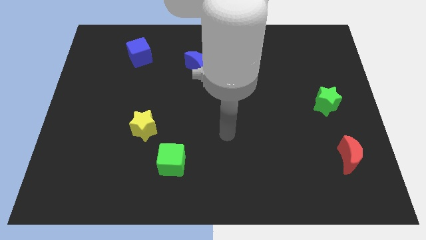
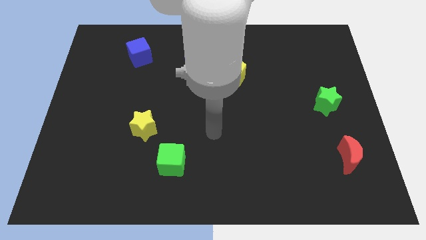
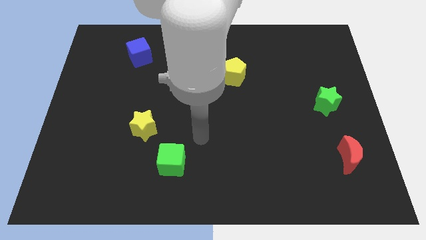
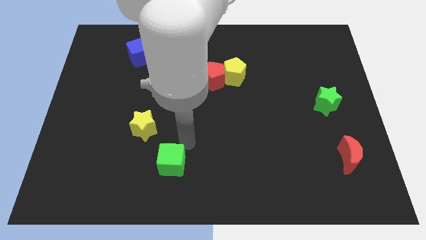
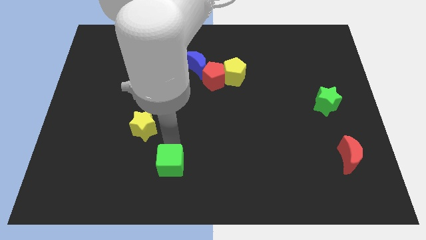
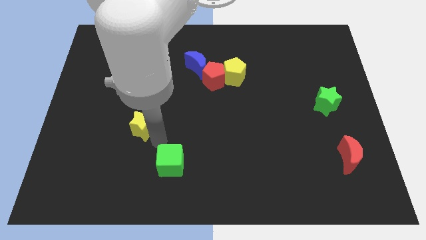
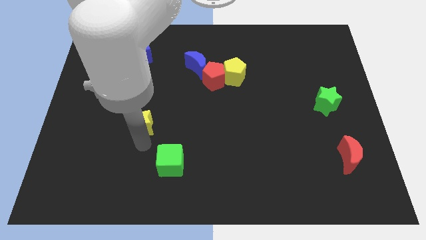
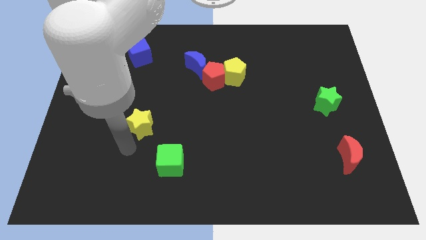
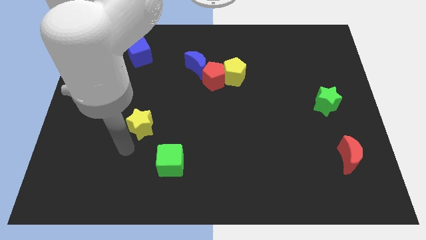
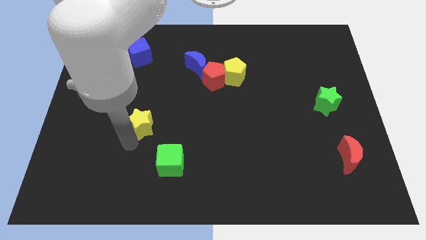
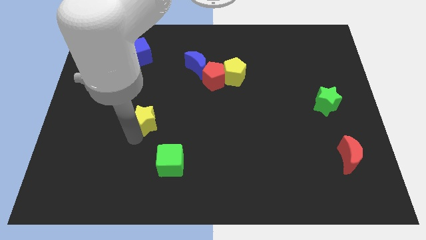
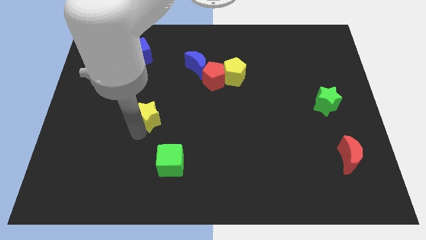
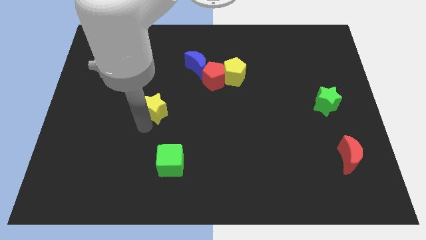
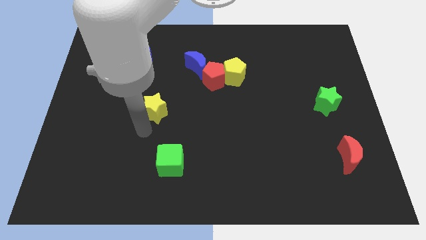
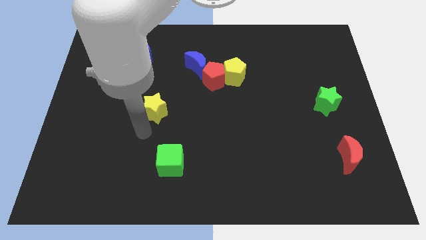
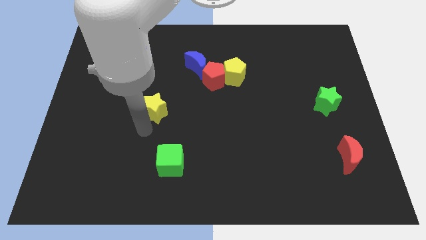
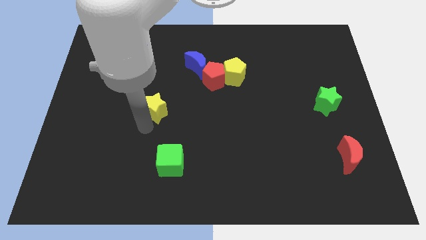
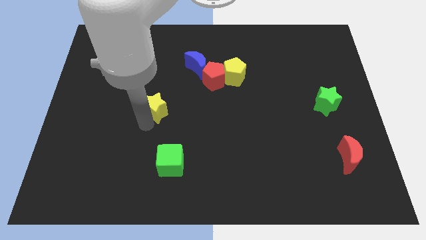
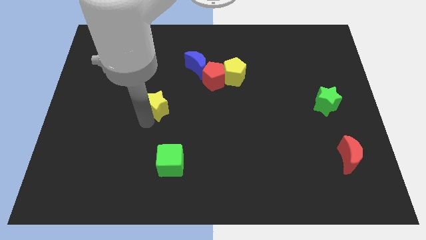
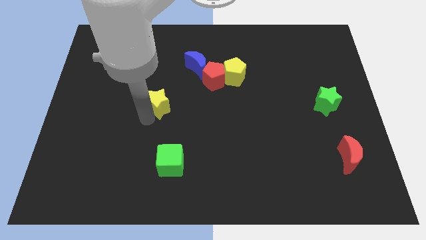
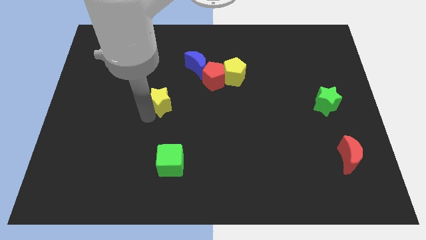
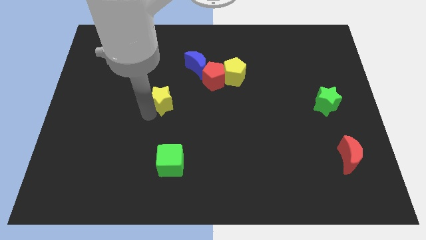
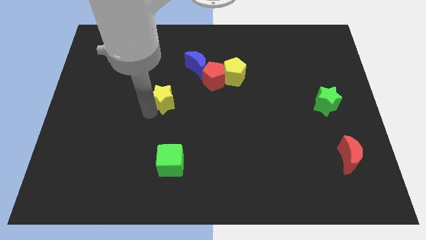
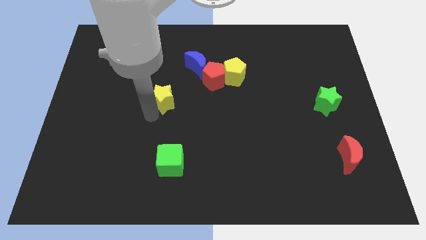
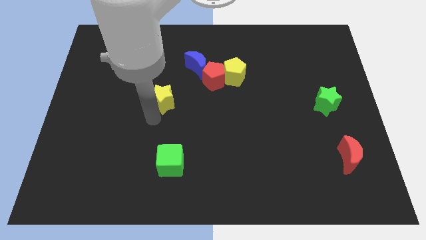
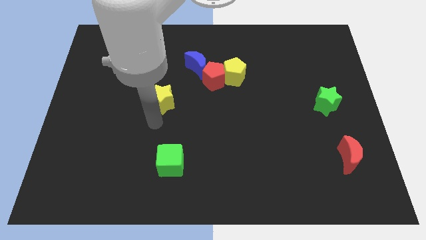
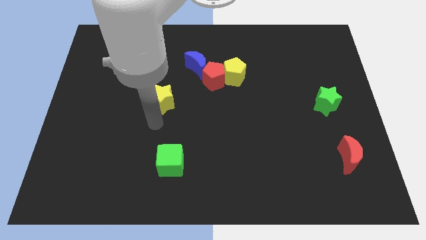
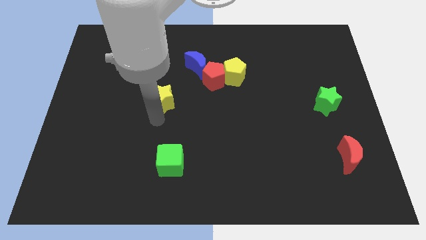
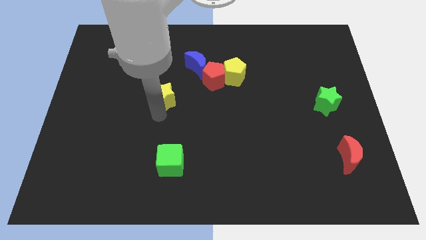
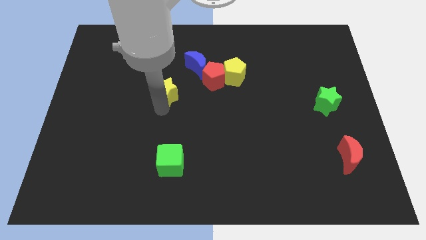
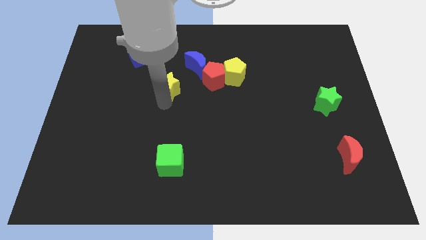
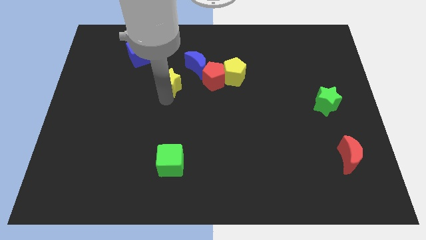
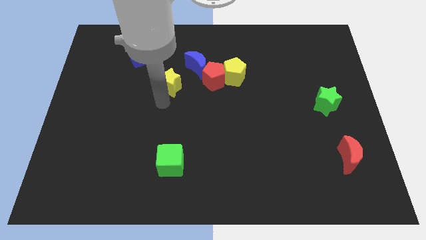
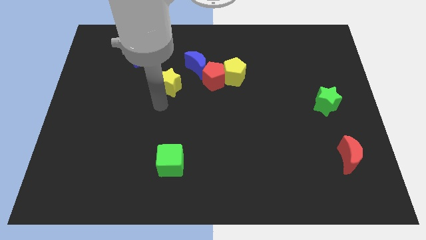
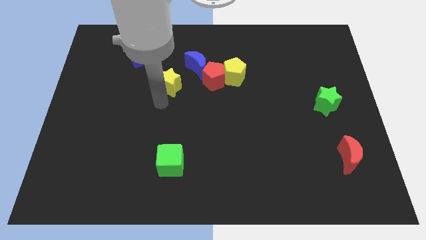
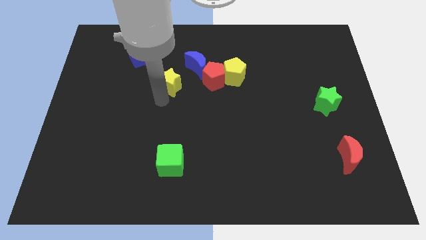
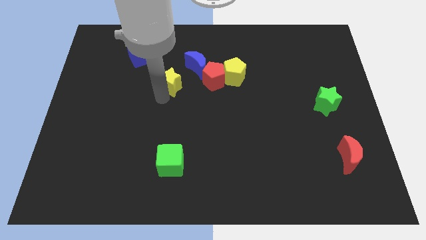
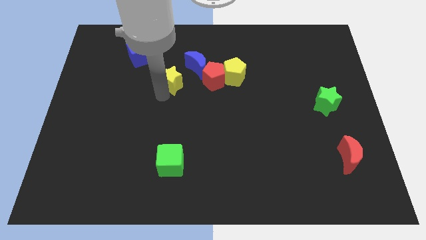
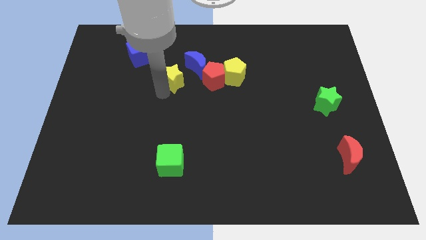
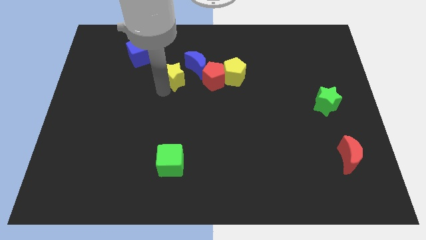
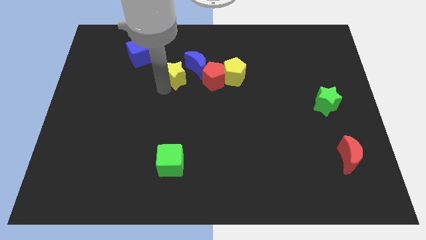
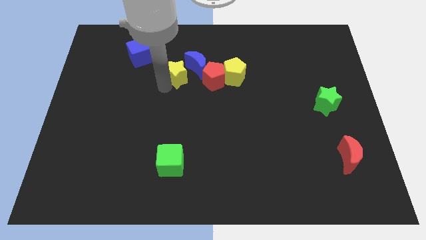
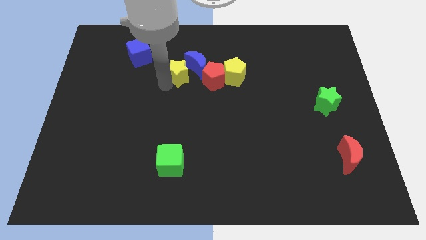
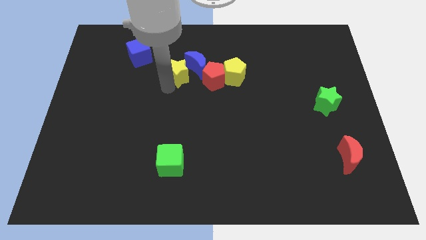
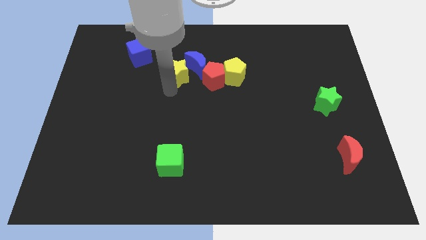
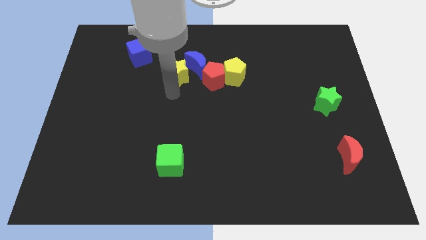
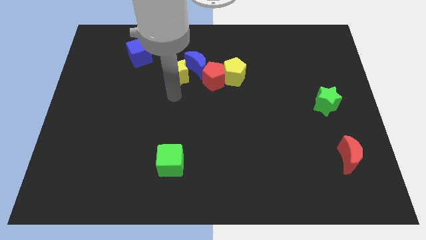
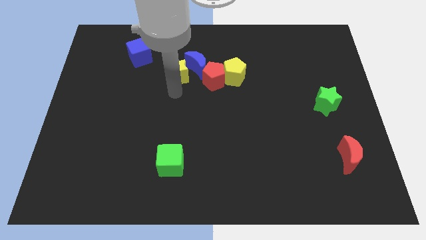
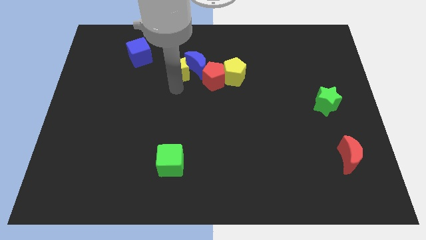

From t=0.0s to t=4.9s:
move the yellow star to the top left of the red pentagon

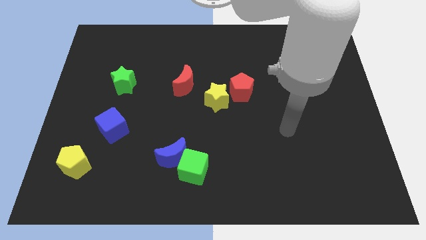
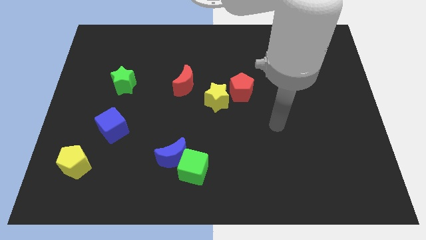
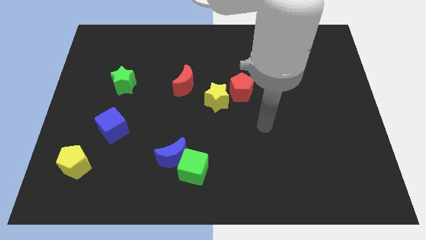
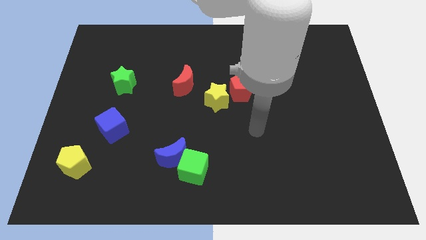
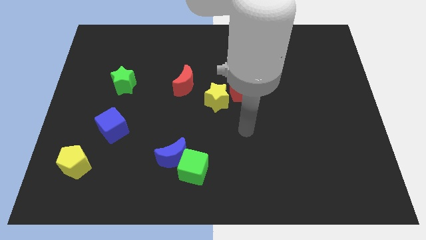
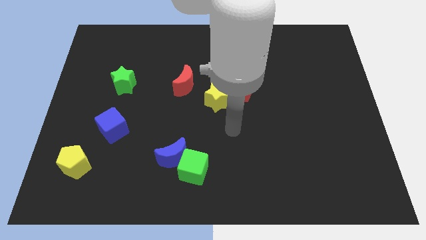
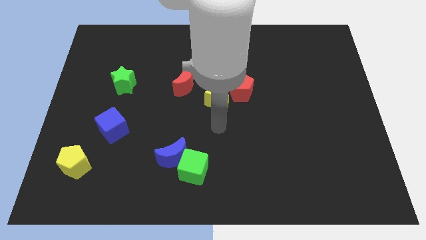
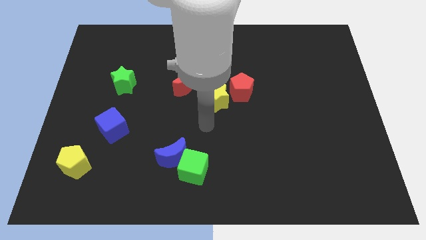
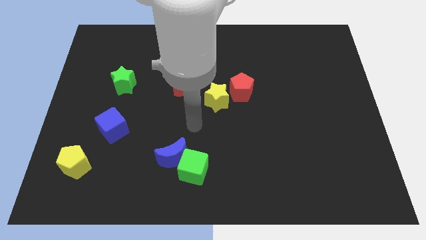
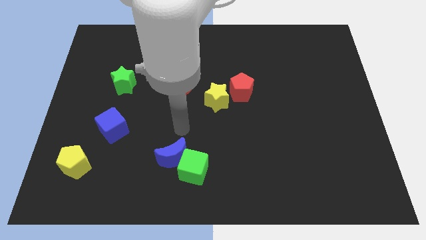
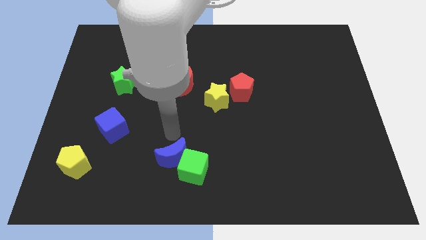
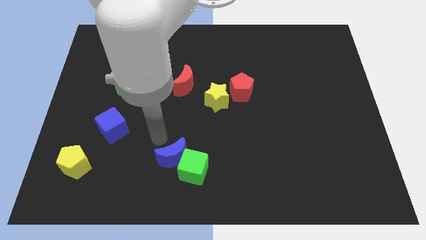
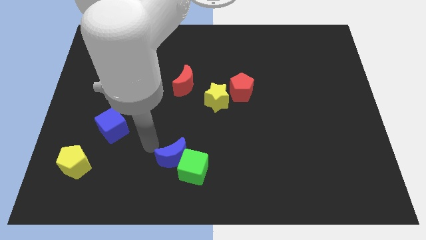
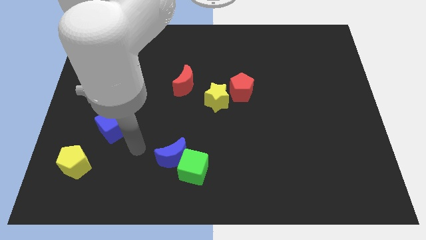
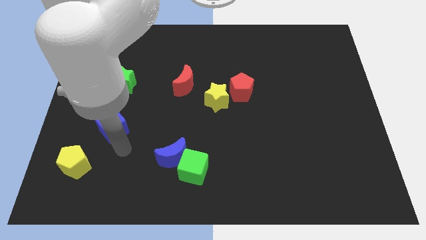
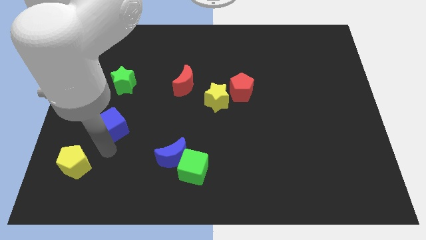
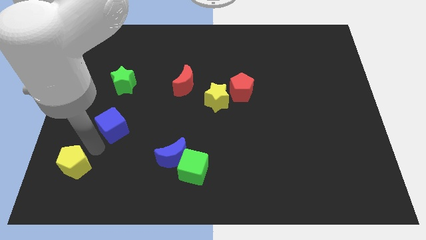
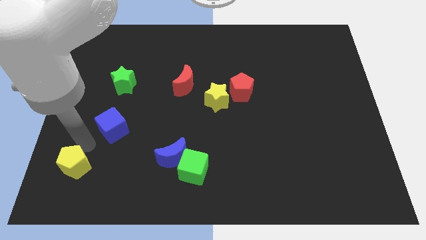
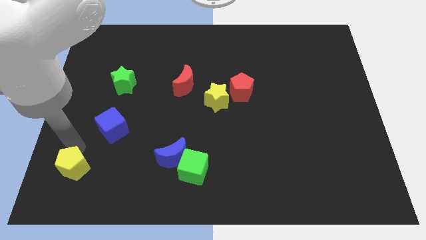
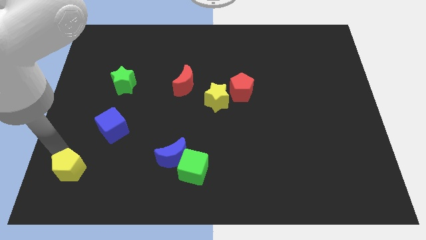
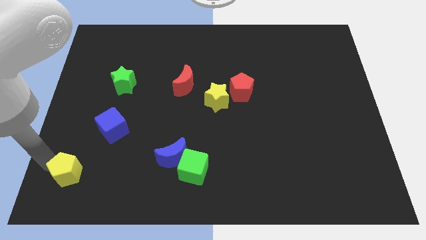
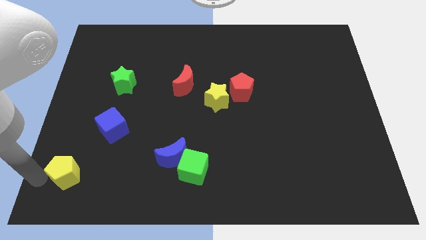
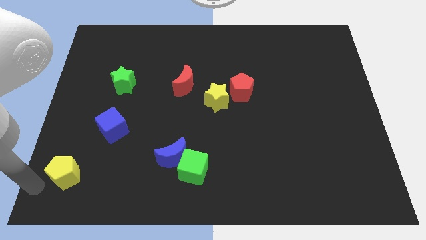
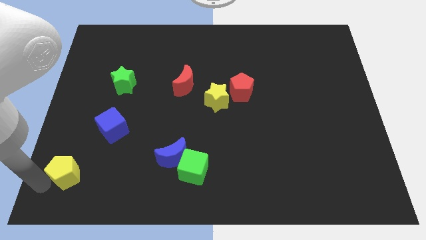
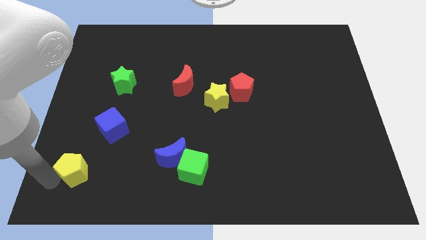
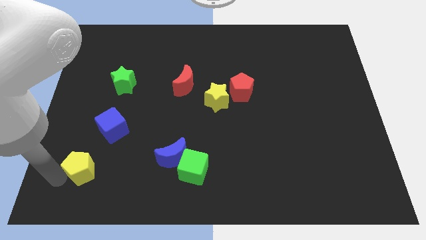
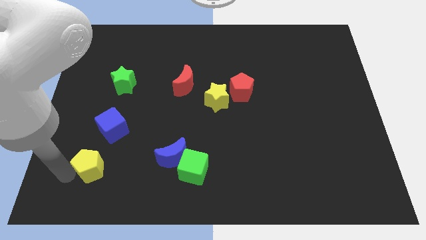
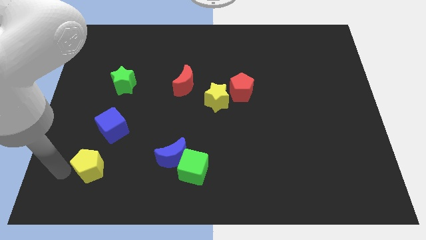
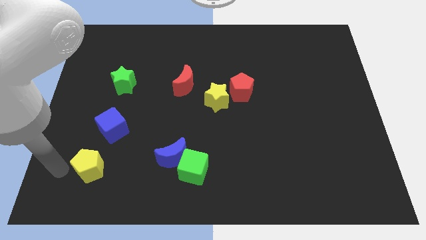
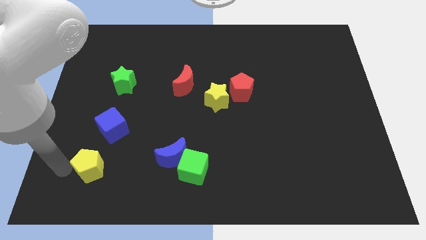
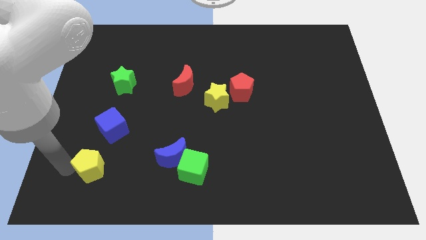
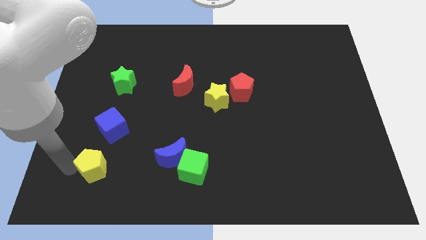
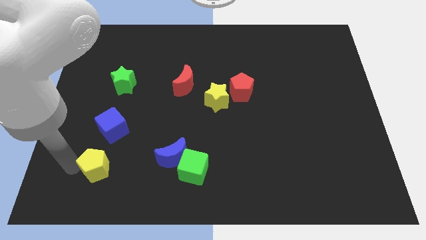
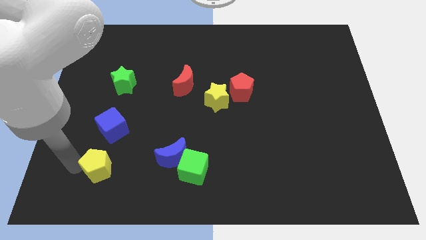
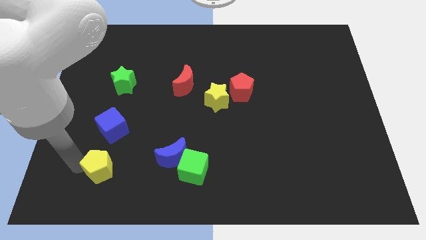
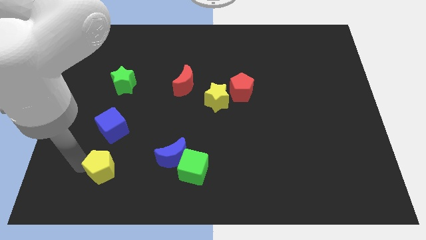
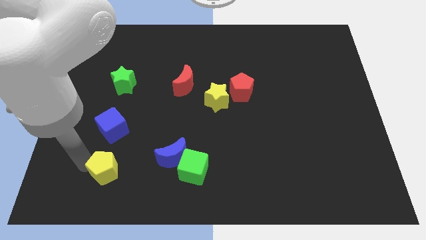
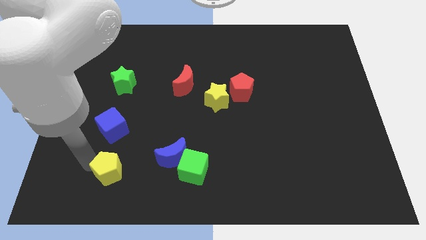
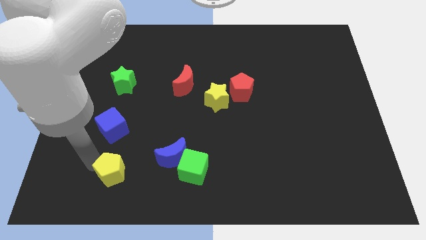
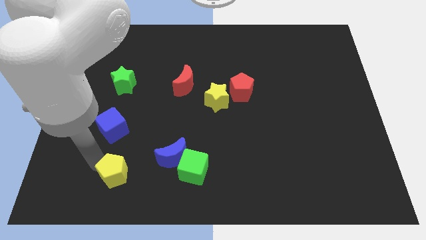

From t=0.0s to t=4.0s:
push the yellow pentagon to the left of the green cube
